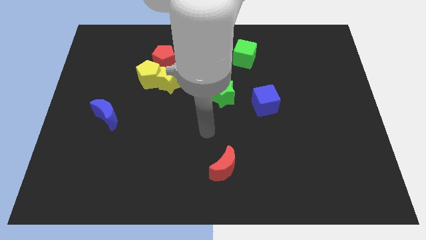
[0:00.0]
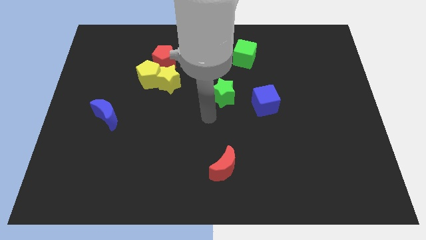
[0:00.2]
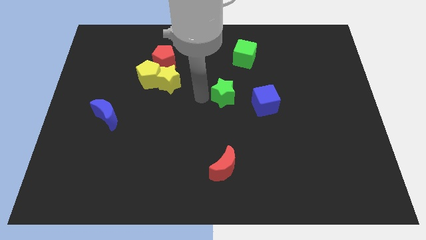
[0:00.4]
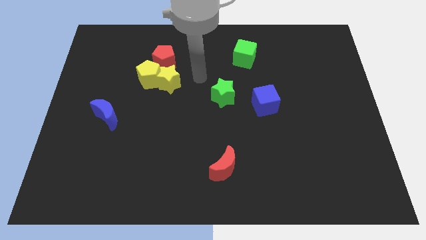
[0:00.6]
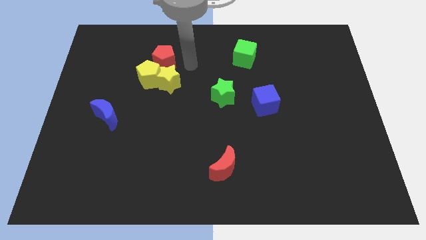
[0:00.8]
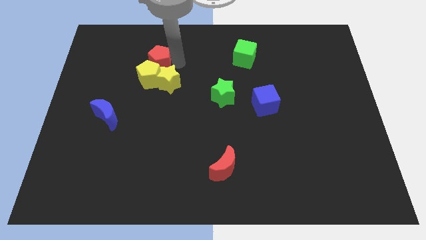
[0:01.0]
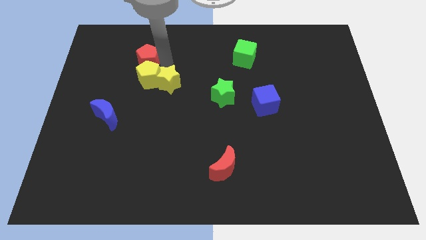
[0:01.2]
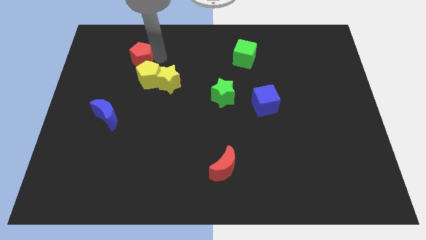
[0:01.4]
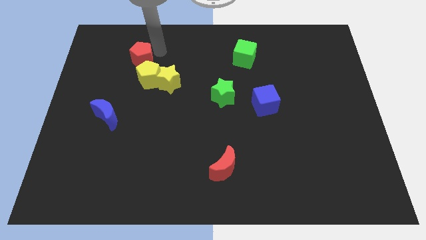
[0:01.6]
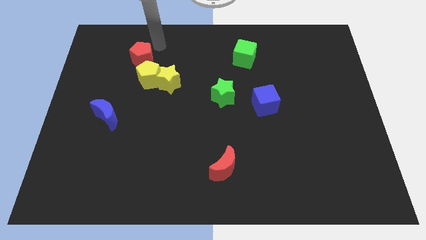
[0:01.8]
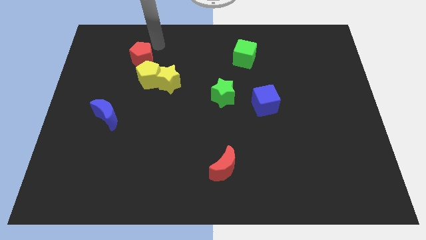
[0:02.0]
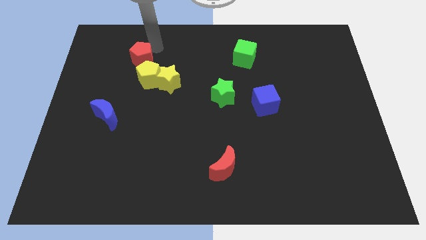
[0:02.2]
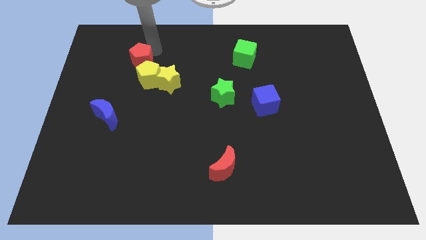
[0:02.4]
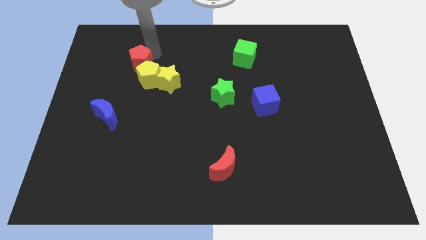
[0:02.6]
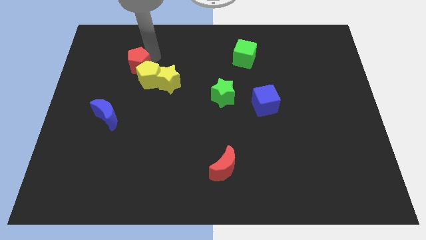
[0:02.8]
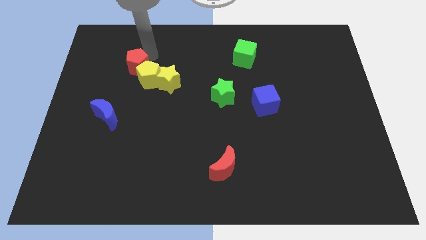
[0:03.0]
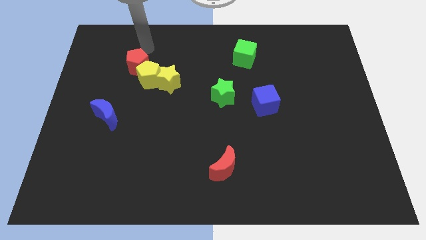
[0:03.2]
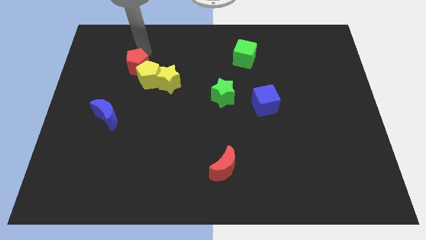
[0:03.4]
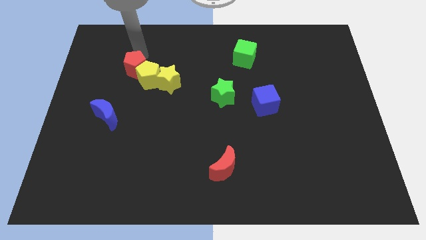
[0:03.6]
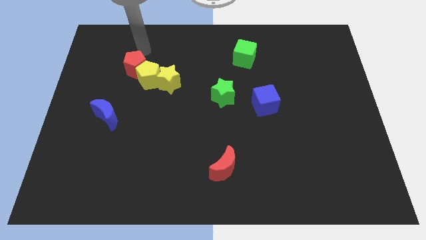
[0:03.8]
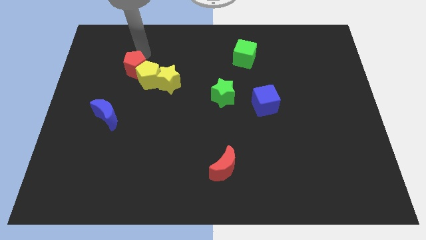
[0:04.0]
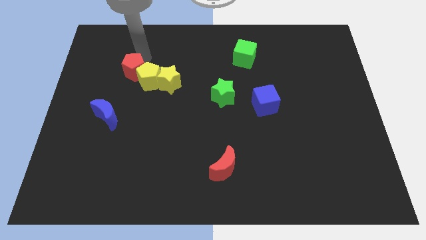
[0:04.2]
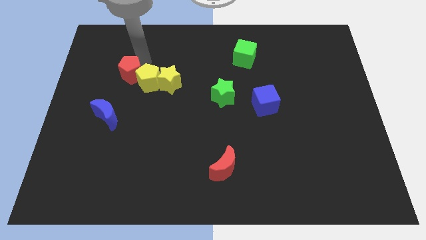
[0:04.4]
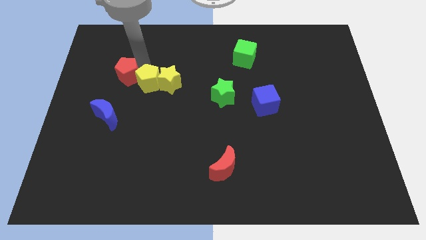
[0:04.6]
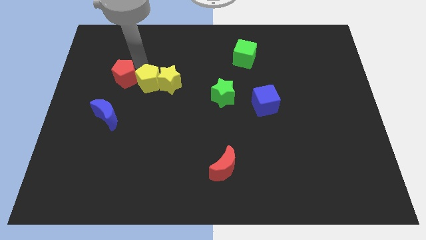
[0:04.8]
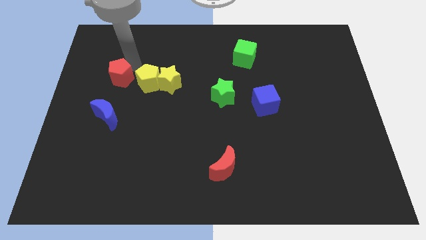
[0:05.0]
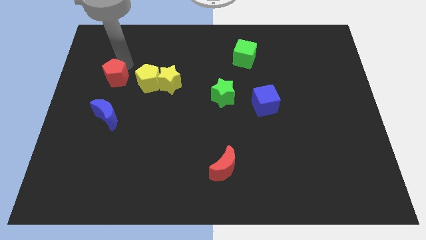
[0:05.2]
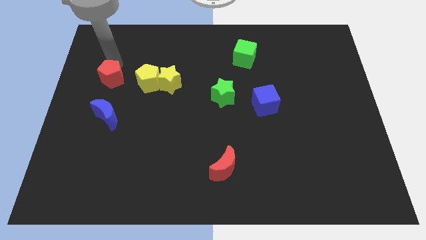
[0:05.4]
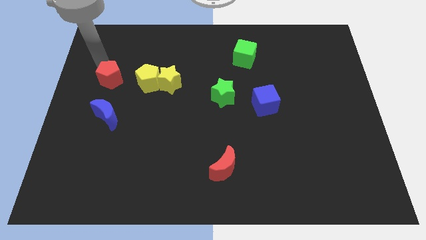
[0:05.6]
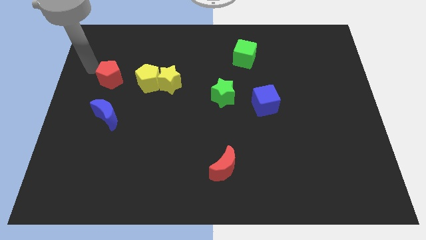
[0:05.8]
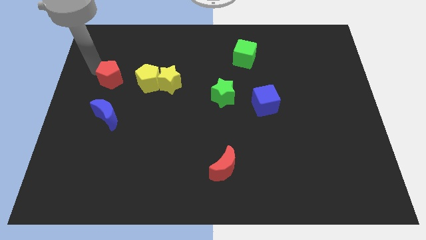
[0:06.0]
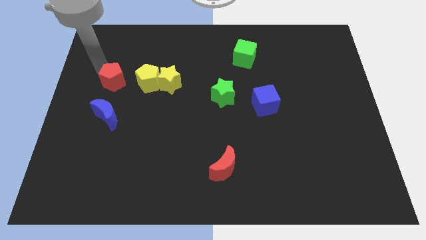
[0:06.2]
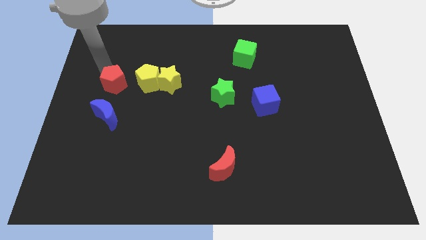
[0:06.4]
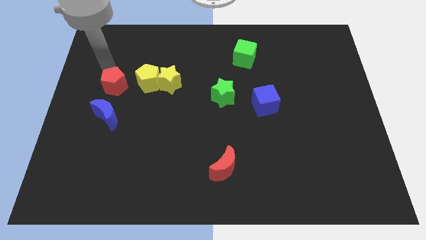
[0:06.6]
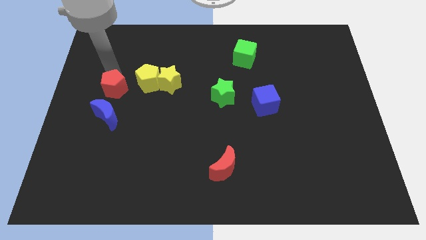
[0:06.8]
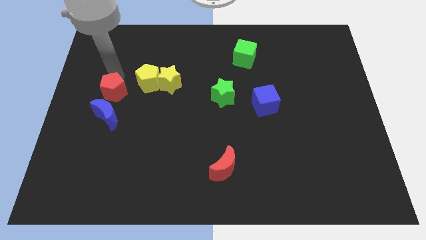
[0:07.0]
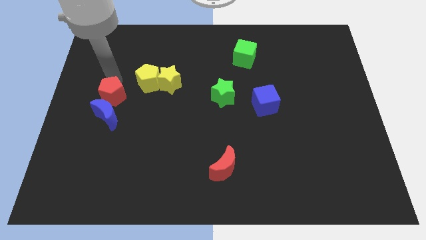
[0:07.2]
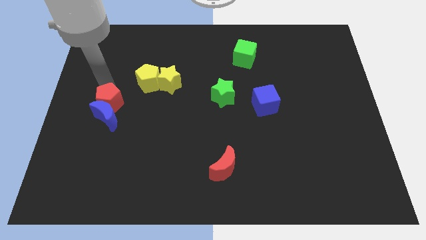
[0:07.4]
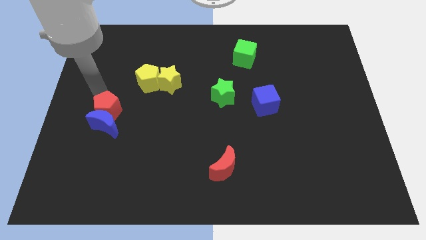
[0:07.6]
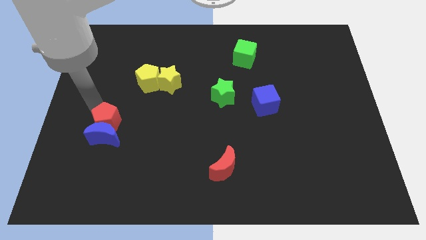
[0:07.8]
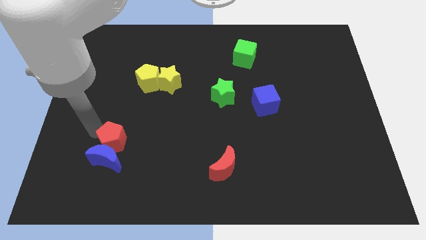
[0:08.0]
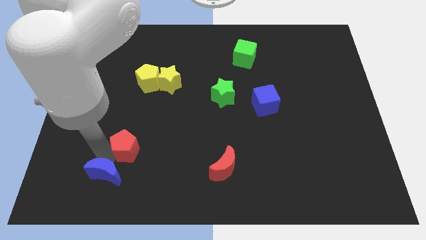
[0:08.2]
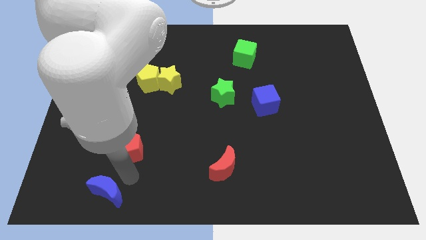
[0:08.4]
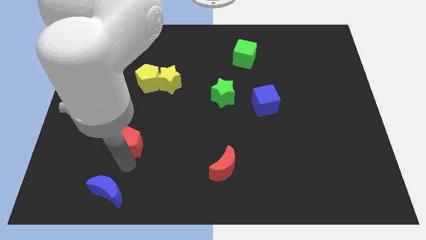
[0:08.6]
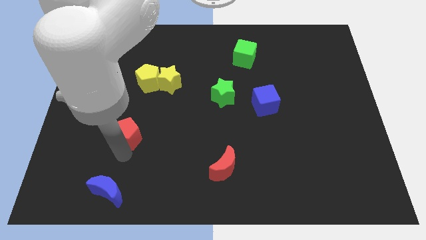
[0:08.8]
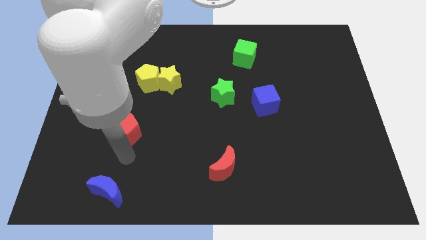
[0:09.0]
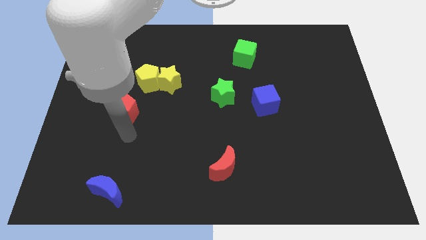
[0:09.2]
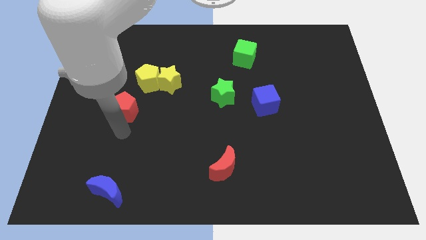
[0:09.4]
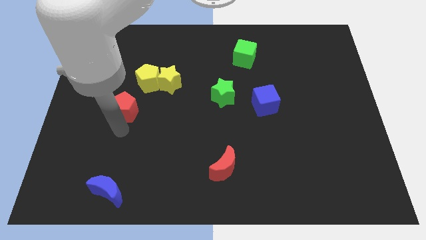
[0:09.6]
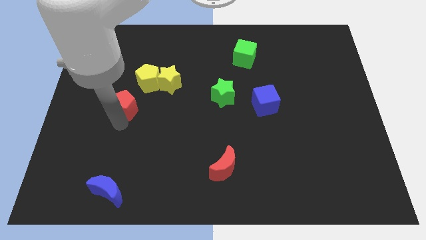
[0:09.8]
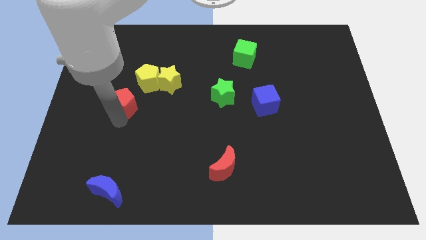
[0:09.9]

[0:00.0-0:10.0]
slide the red pentagon to the bottom left side of the yellow star

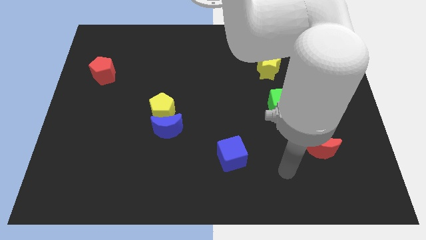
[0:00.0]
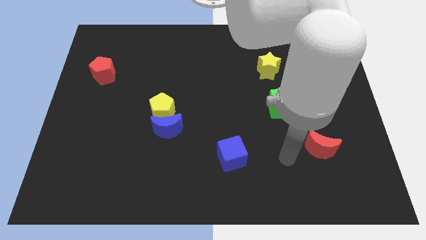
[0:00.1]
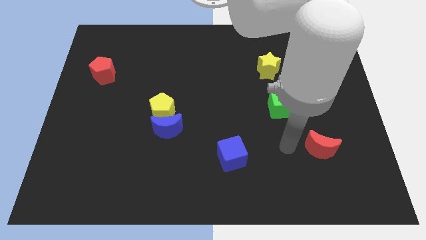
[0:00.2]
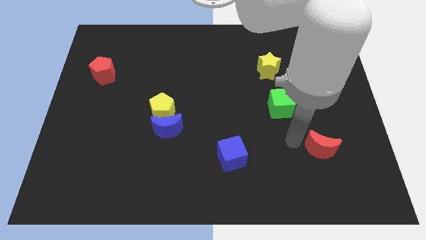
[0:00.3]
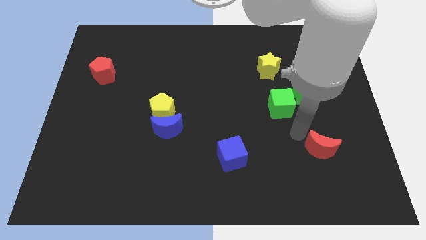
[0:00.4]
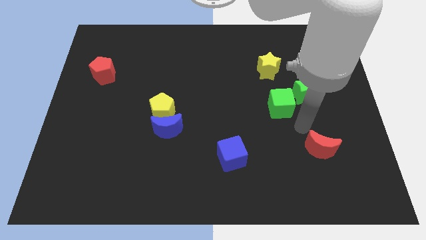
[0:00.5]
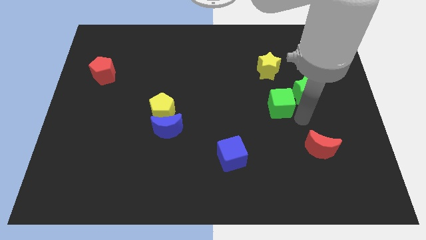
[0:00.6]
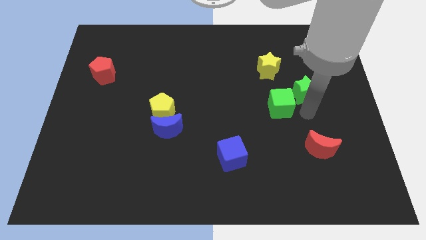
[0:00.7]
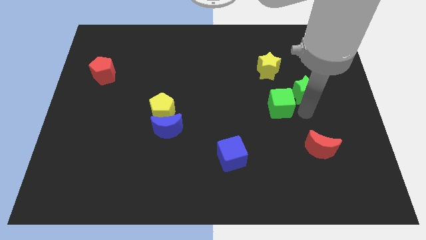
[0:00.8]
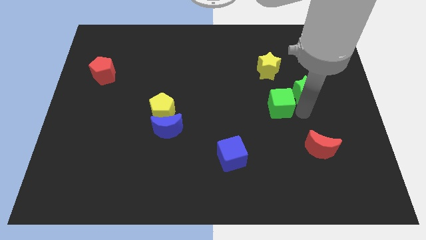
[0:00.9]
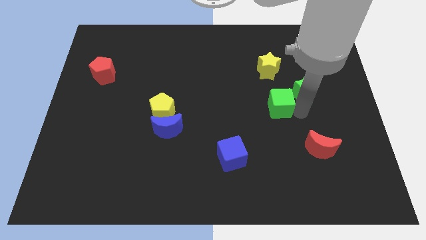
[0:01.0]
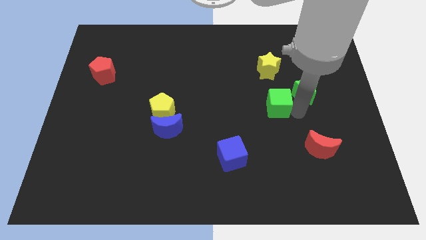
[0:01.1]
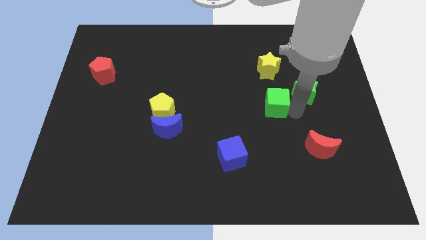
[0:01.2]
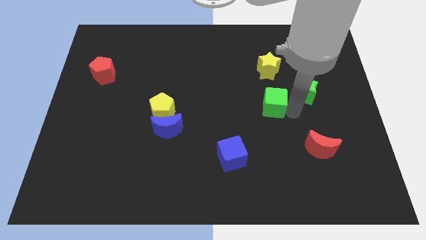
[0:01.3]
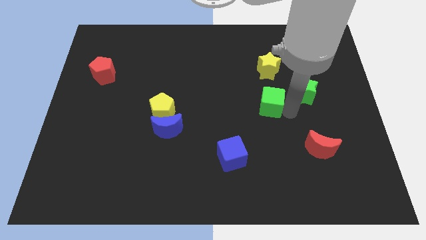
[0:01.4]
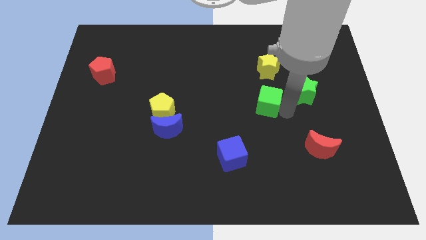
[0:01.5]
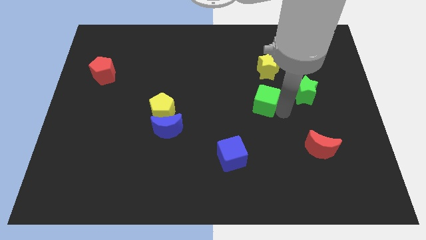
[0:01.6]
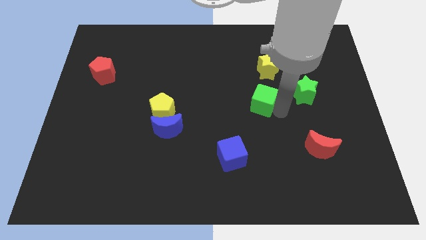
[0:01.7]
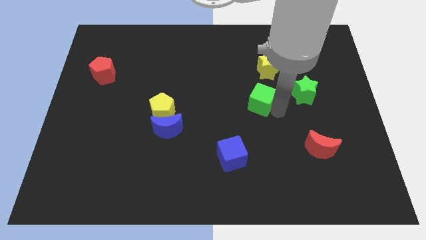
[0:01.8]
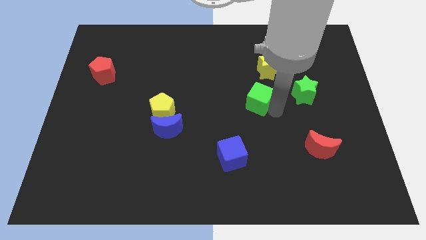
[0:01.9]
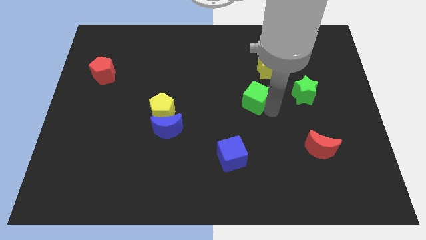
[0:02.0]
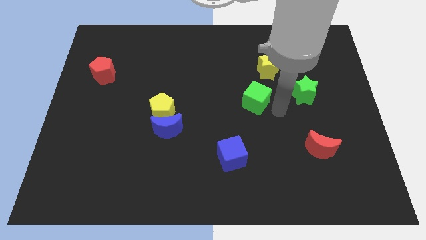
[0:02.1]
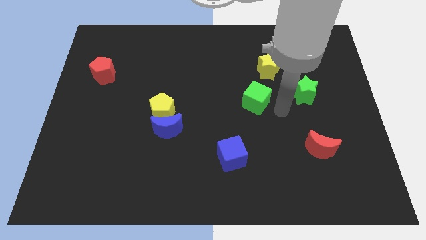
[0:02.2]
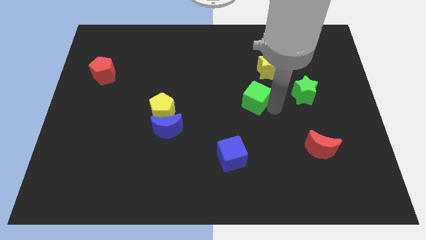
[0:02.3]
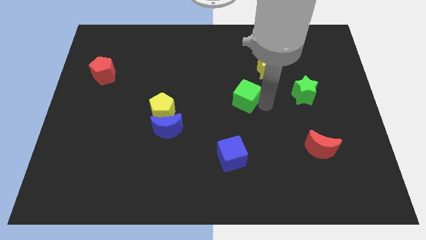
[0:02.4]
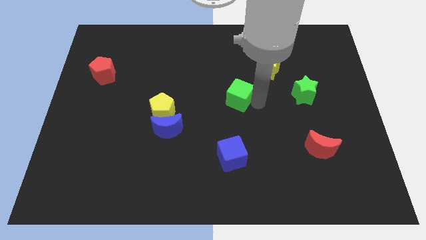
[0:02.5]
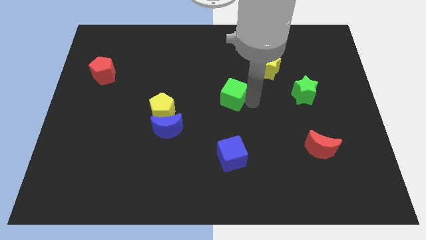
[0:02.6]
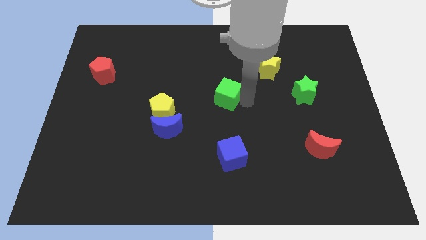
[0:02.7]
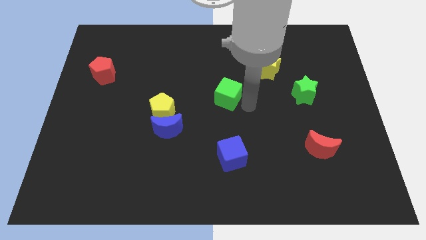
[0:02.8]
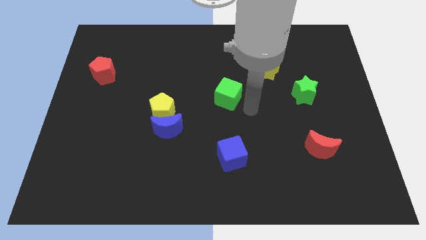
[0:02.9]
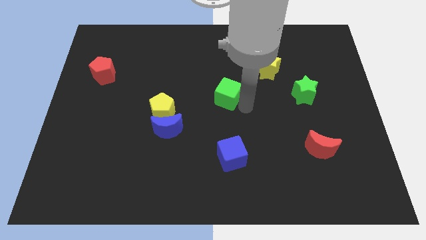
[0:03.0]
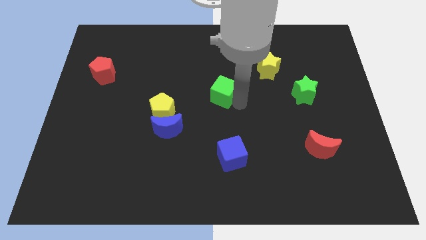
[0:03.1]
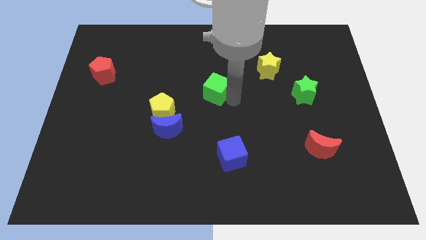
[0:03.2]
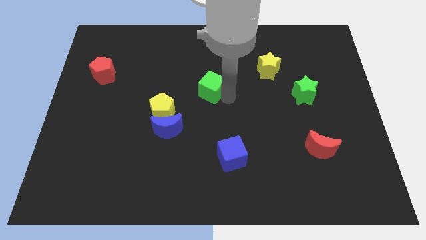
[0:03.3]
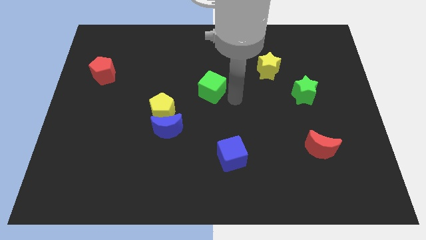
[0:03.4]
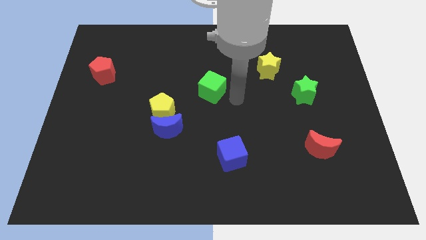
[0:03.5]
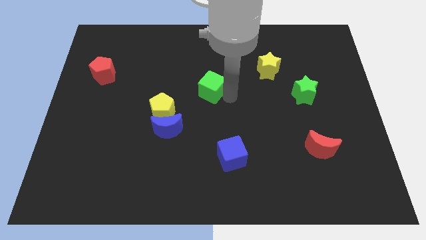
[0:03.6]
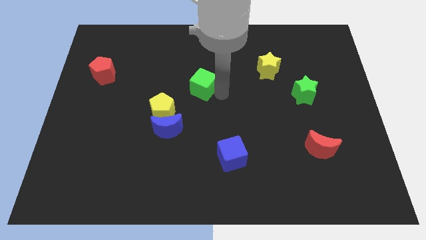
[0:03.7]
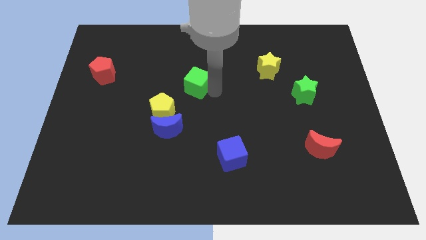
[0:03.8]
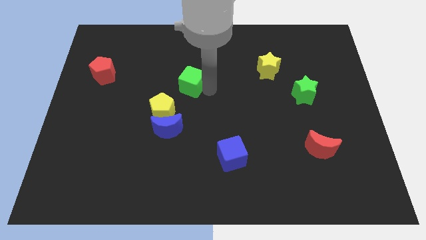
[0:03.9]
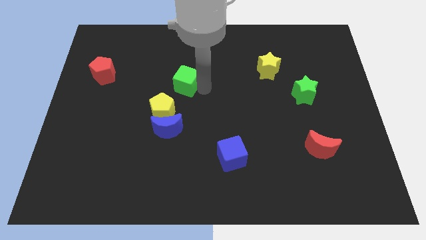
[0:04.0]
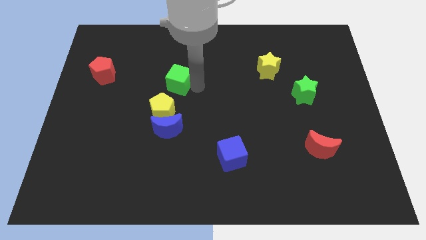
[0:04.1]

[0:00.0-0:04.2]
move the green cube to the top side of the yellow pentagon
